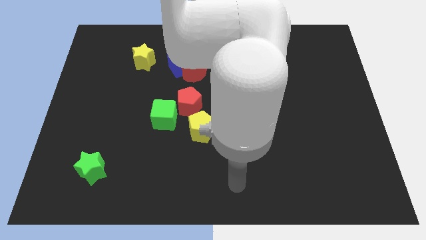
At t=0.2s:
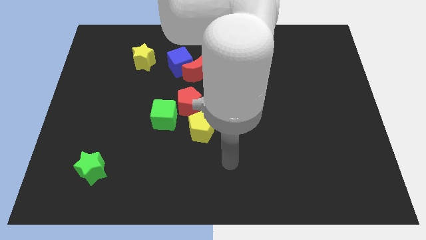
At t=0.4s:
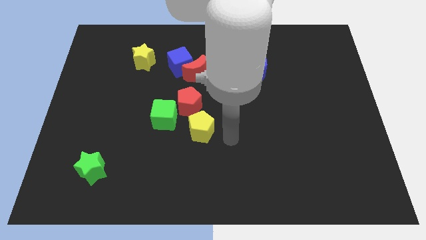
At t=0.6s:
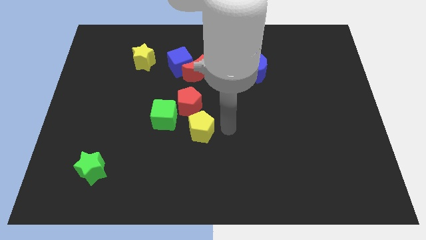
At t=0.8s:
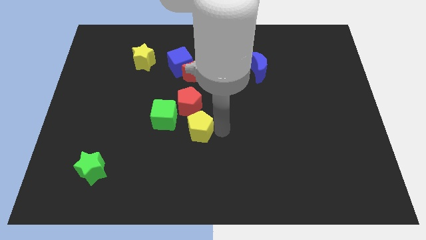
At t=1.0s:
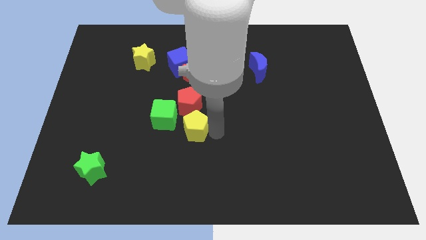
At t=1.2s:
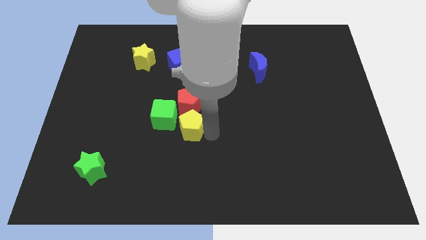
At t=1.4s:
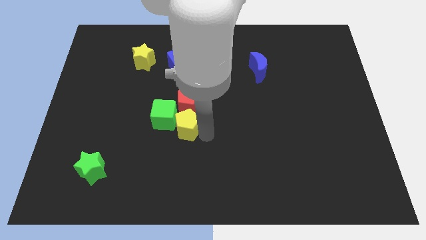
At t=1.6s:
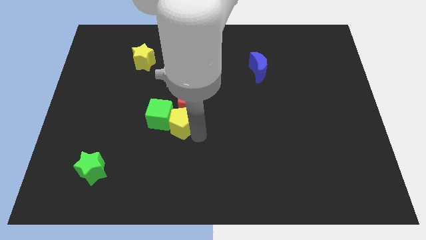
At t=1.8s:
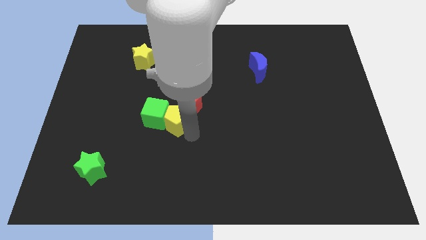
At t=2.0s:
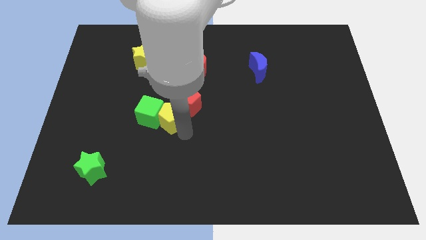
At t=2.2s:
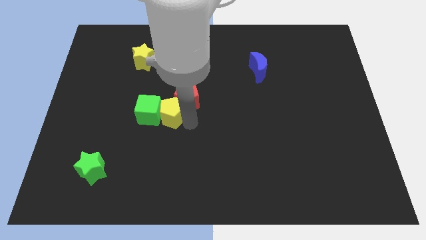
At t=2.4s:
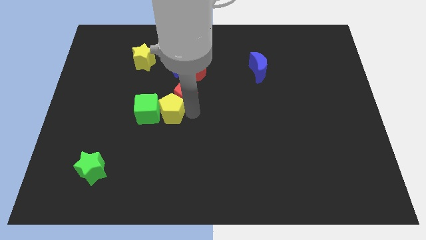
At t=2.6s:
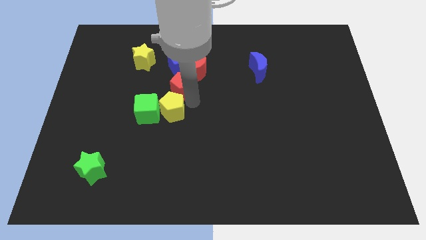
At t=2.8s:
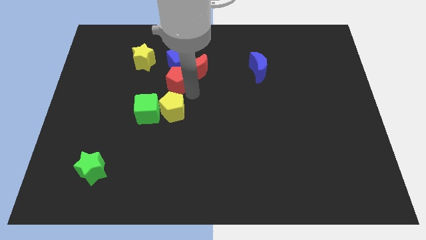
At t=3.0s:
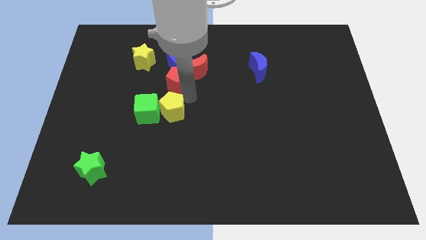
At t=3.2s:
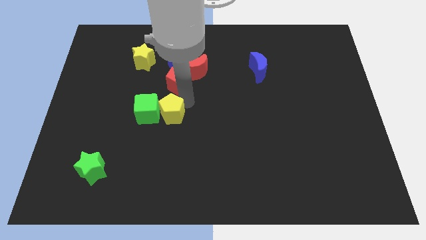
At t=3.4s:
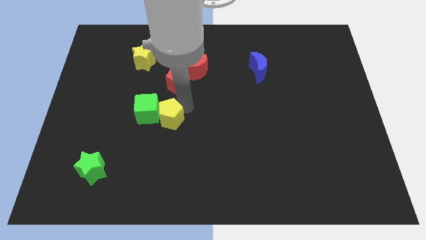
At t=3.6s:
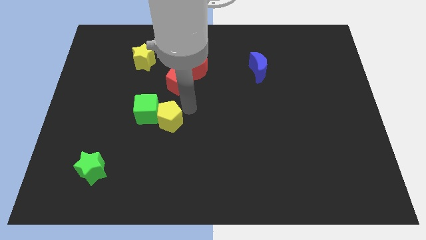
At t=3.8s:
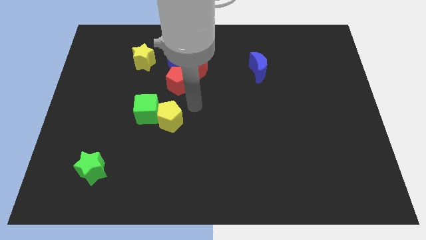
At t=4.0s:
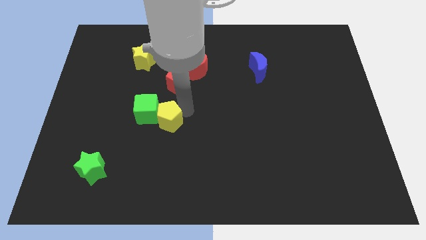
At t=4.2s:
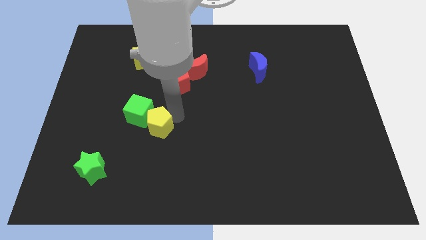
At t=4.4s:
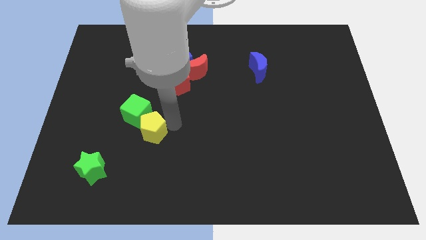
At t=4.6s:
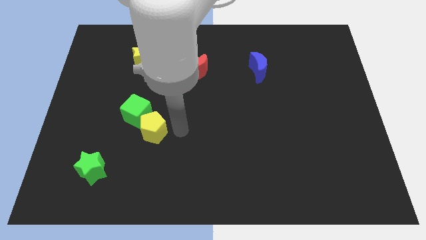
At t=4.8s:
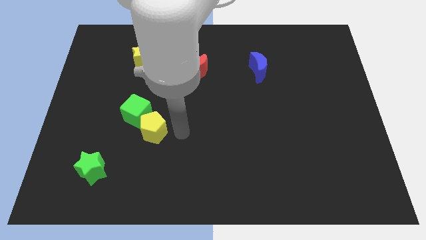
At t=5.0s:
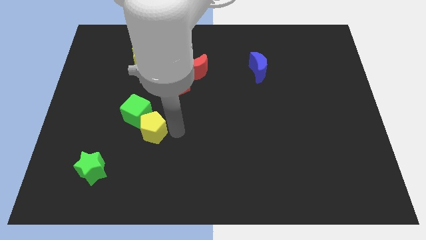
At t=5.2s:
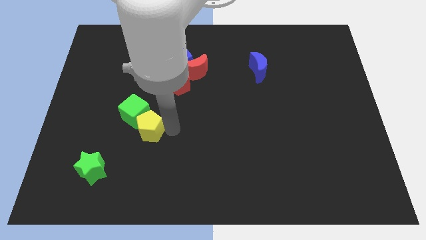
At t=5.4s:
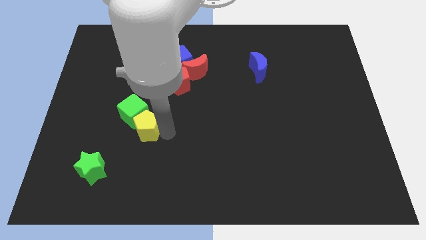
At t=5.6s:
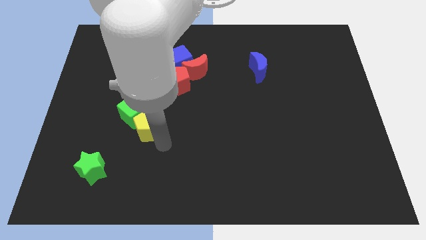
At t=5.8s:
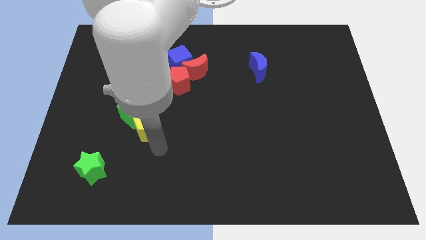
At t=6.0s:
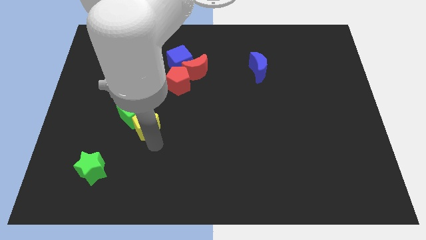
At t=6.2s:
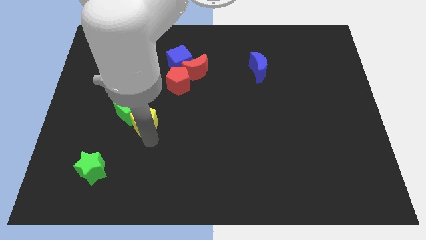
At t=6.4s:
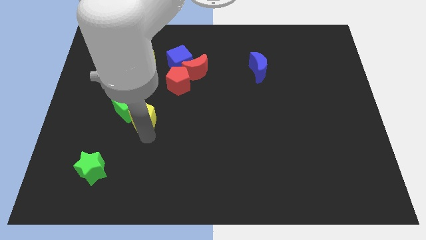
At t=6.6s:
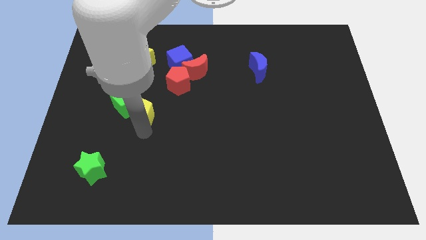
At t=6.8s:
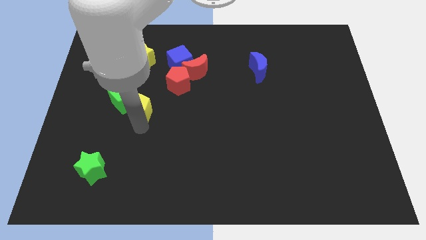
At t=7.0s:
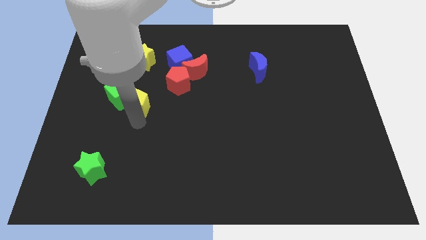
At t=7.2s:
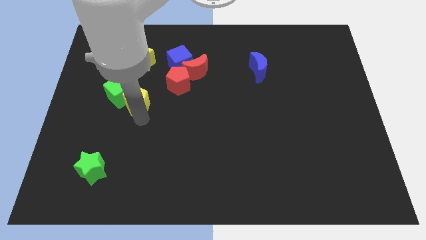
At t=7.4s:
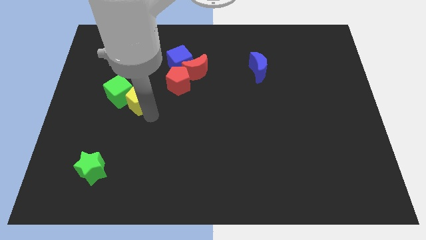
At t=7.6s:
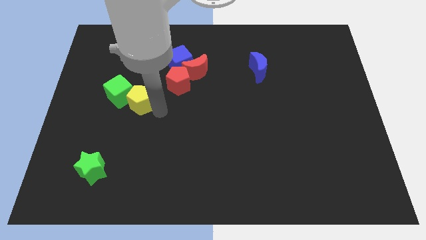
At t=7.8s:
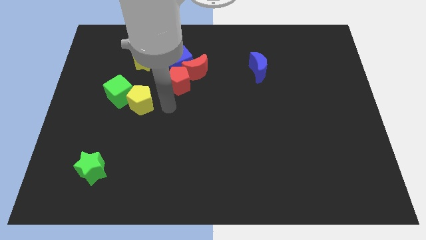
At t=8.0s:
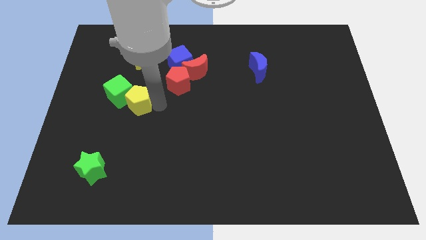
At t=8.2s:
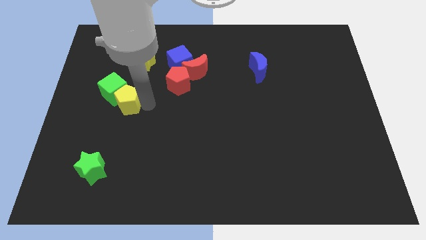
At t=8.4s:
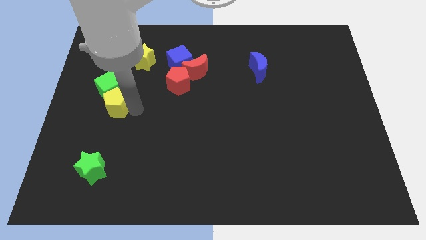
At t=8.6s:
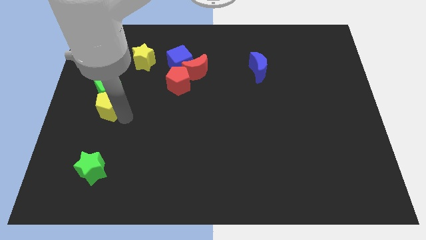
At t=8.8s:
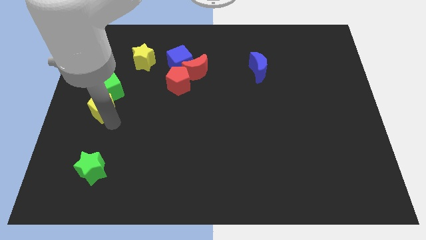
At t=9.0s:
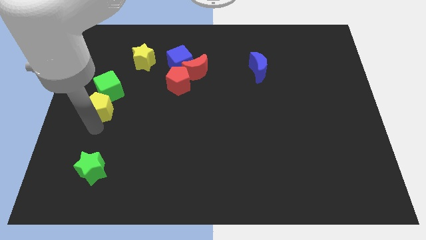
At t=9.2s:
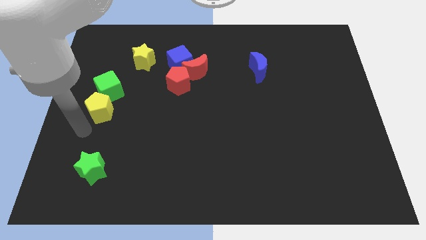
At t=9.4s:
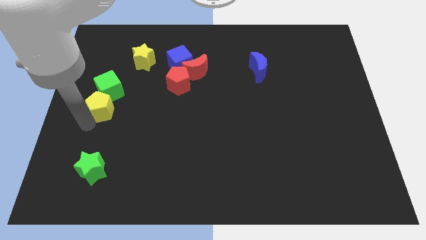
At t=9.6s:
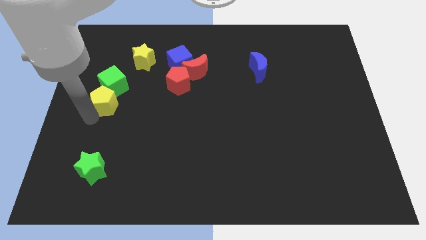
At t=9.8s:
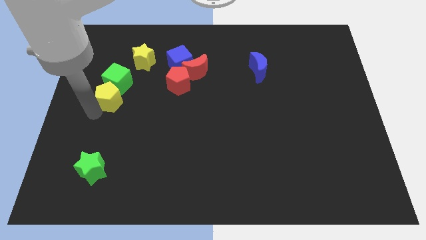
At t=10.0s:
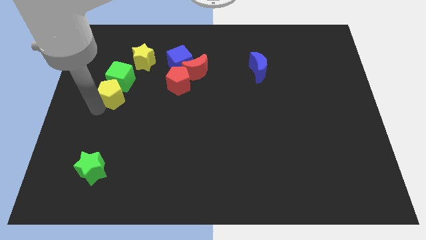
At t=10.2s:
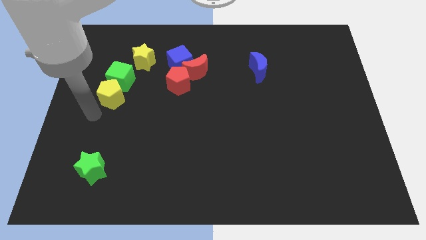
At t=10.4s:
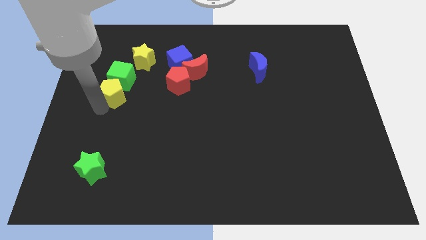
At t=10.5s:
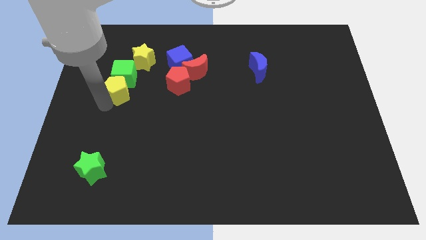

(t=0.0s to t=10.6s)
move the yellow pentagon diagonally upwards and left

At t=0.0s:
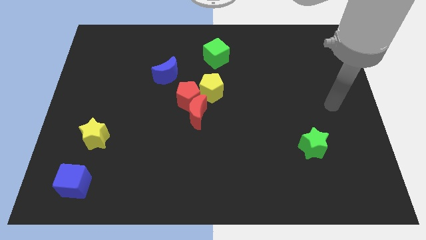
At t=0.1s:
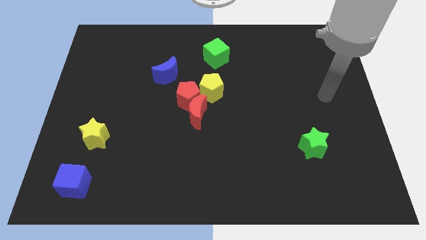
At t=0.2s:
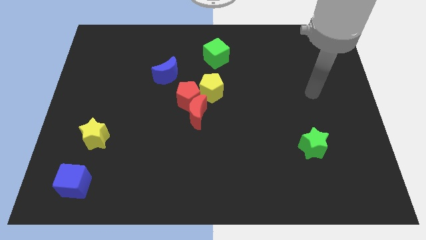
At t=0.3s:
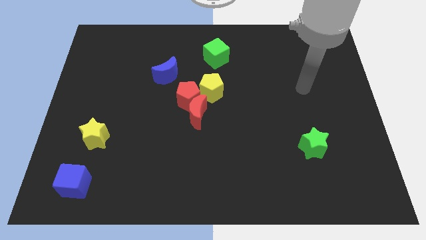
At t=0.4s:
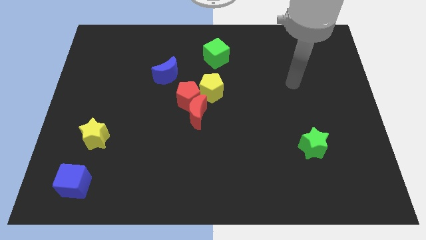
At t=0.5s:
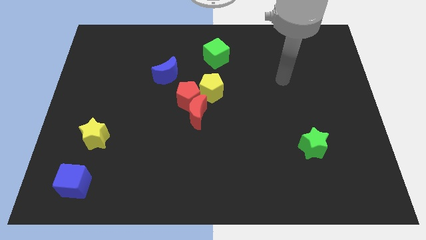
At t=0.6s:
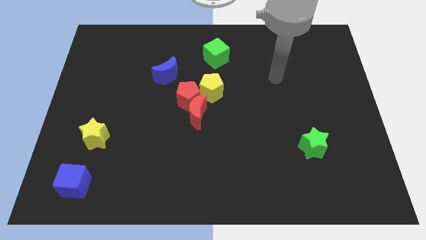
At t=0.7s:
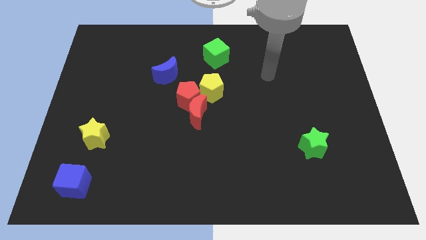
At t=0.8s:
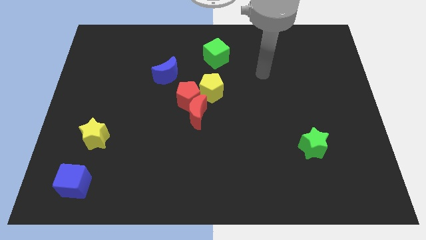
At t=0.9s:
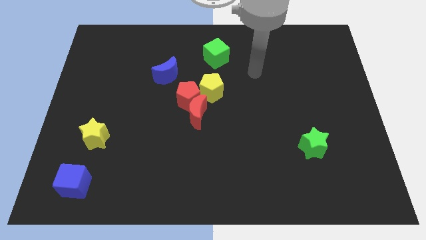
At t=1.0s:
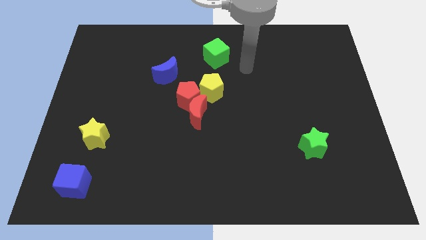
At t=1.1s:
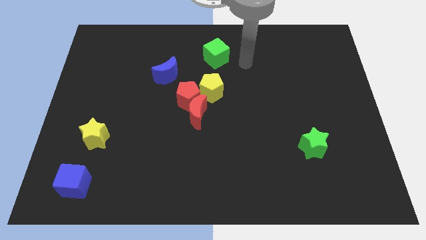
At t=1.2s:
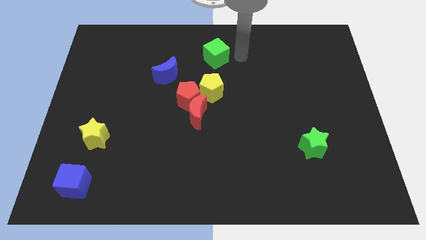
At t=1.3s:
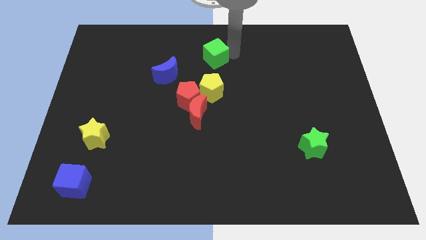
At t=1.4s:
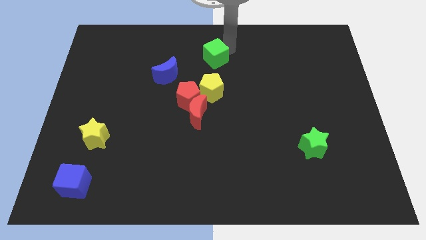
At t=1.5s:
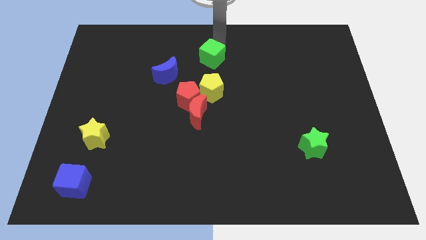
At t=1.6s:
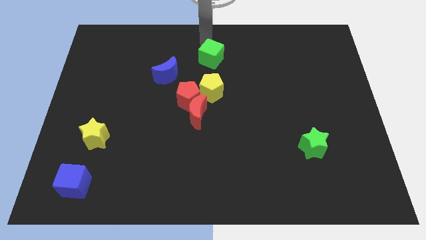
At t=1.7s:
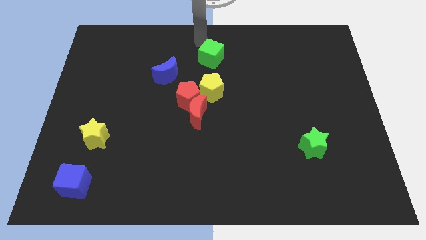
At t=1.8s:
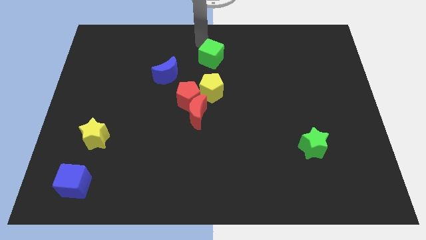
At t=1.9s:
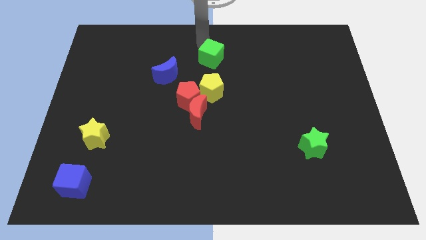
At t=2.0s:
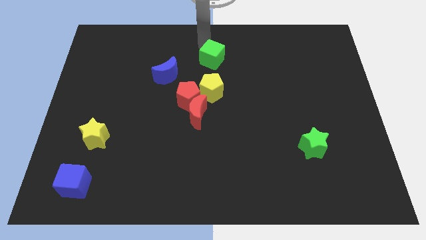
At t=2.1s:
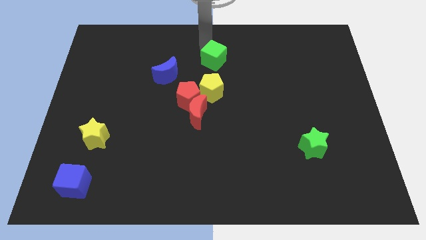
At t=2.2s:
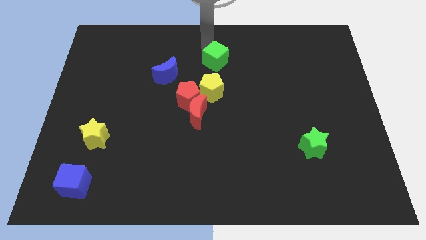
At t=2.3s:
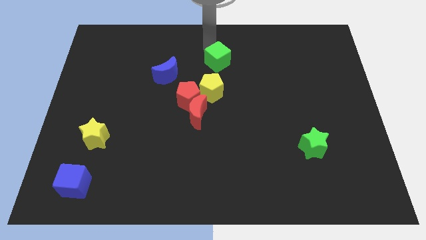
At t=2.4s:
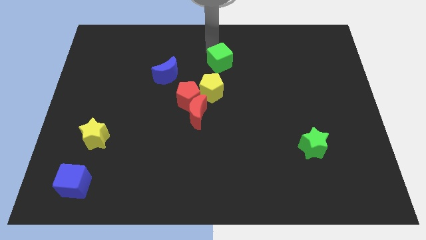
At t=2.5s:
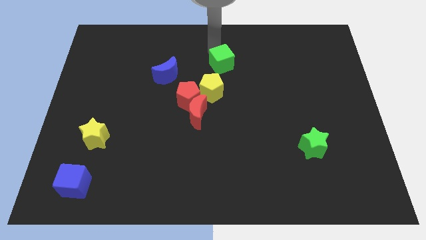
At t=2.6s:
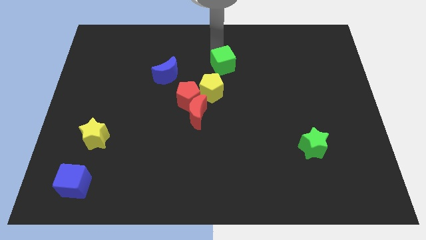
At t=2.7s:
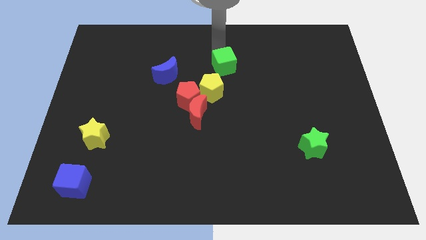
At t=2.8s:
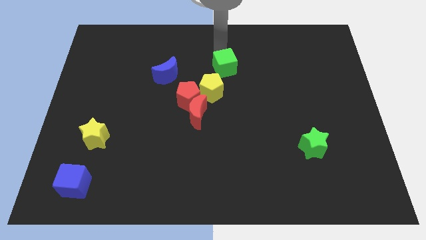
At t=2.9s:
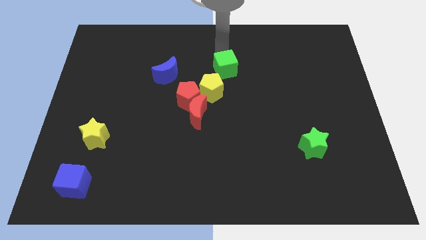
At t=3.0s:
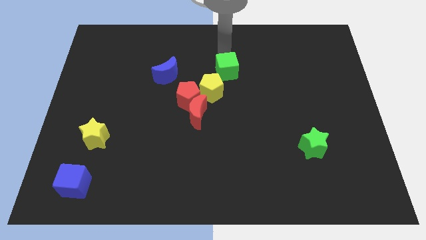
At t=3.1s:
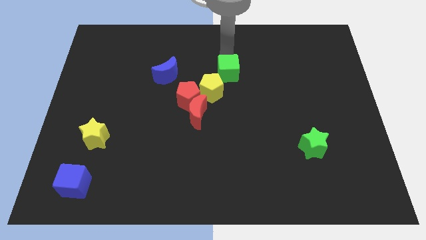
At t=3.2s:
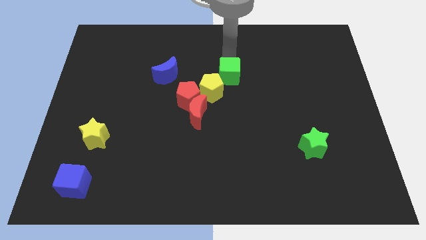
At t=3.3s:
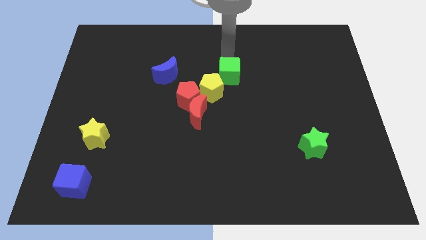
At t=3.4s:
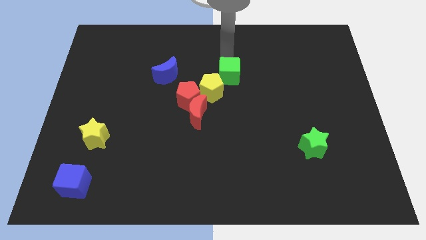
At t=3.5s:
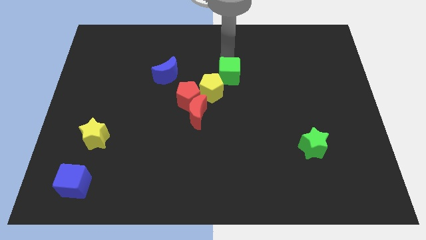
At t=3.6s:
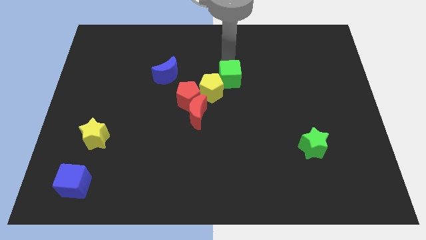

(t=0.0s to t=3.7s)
slightly push the green cube down
